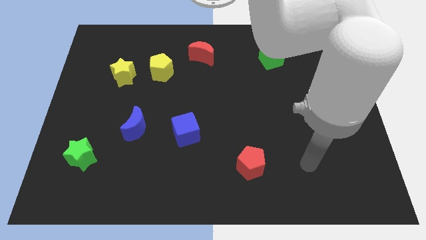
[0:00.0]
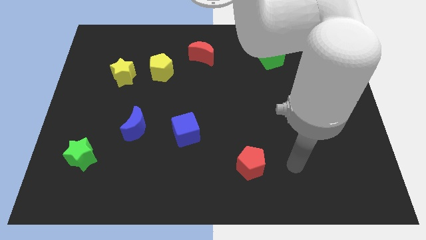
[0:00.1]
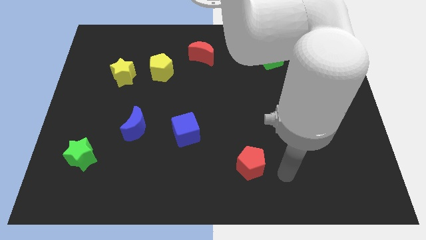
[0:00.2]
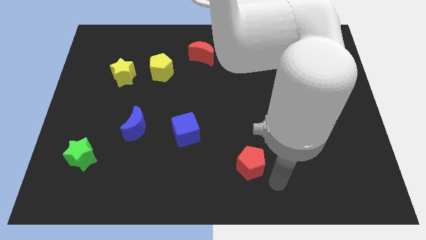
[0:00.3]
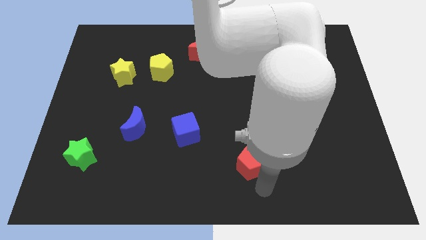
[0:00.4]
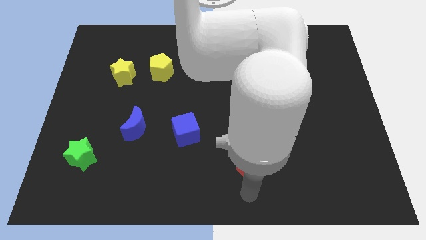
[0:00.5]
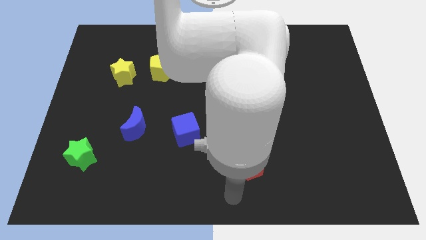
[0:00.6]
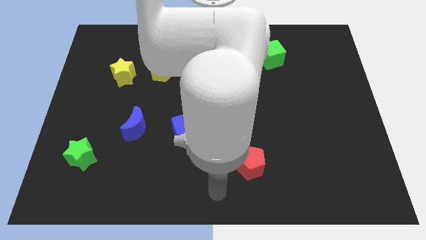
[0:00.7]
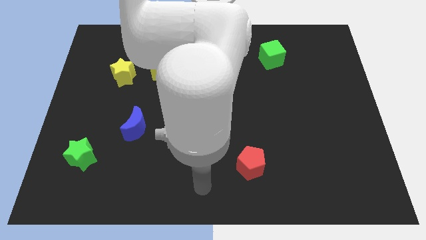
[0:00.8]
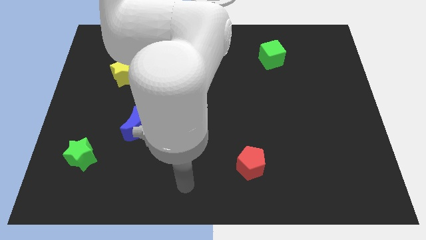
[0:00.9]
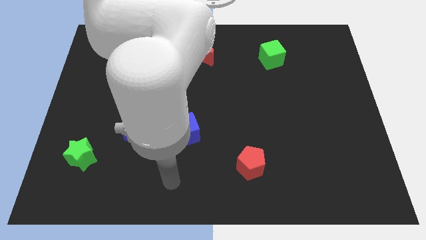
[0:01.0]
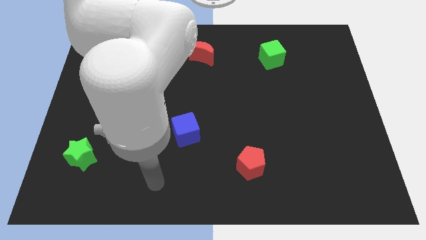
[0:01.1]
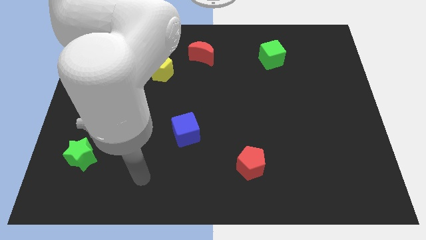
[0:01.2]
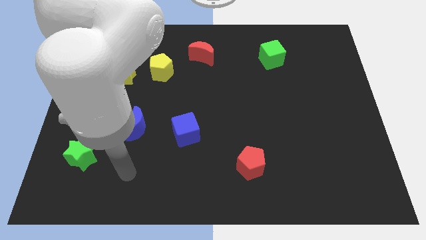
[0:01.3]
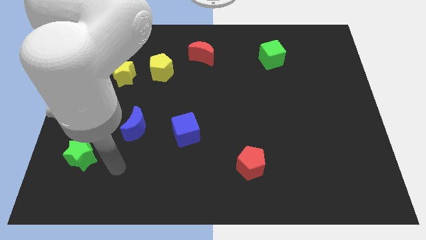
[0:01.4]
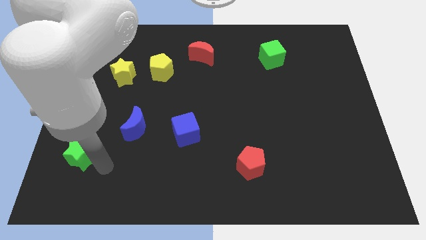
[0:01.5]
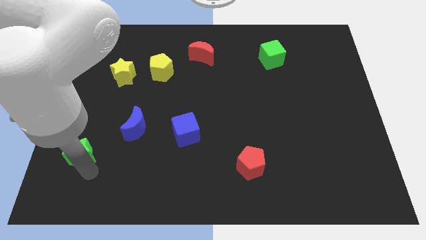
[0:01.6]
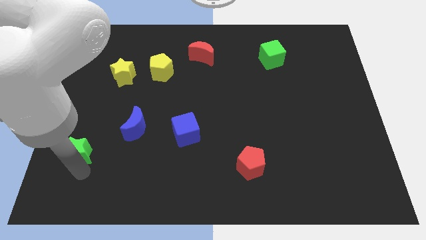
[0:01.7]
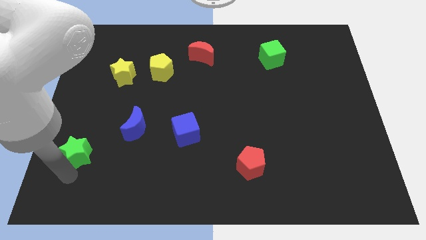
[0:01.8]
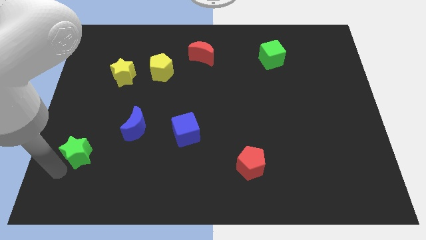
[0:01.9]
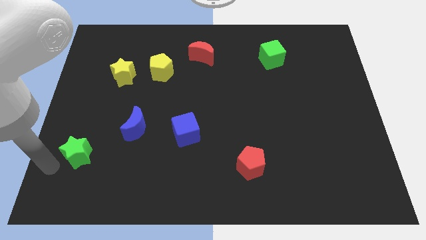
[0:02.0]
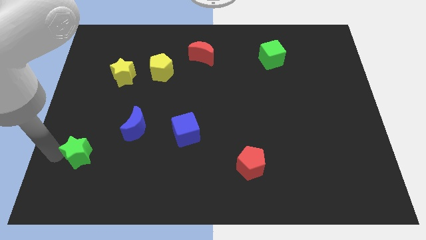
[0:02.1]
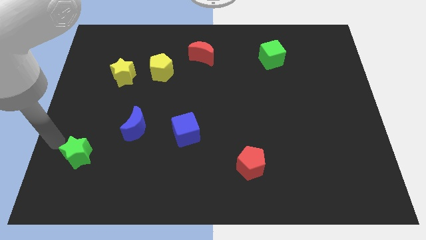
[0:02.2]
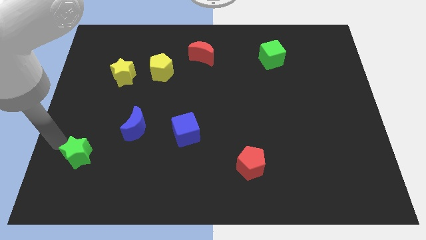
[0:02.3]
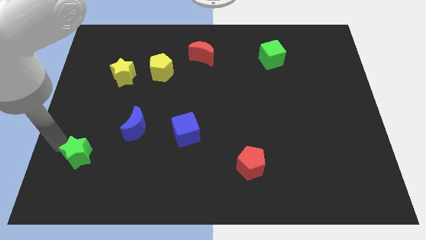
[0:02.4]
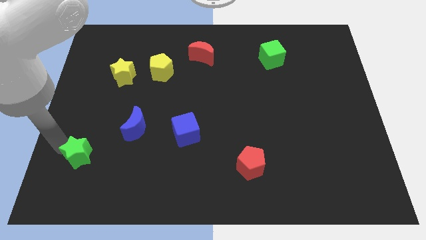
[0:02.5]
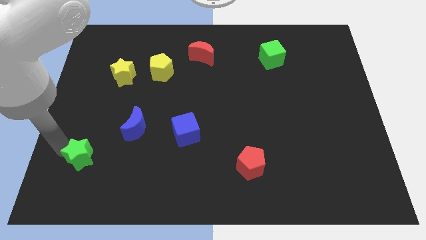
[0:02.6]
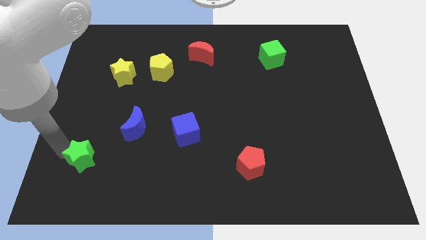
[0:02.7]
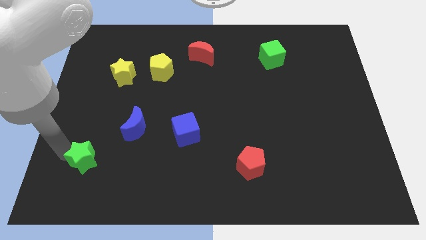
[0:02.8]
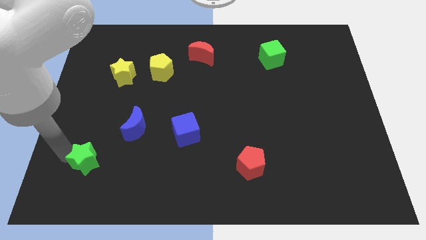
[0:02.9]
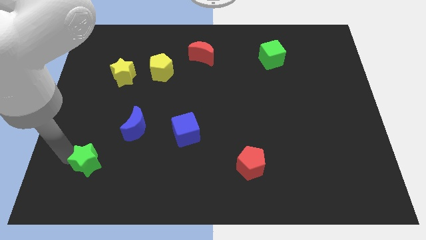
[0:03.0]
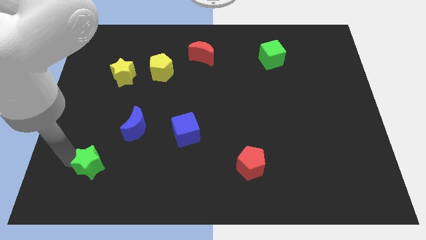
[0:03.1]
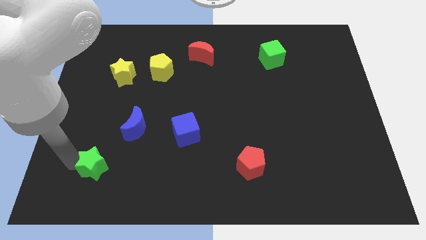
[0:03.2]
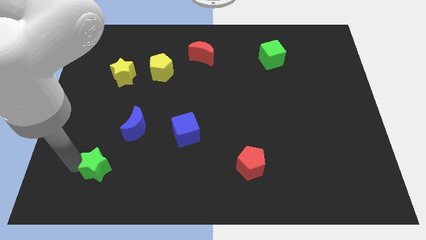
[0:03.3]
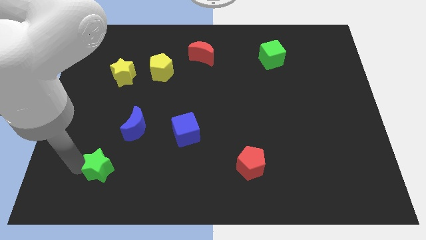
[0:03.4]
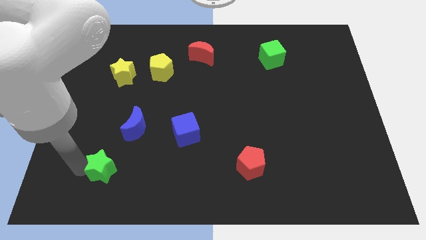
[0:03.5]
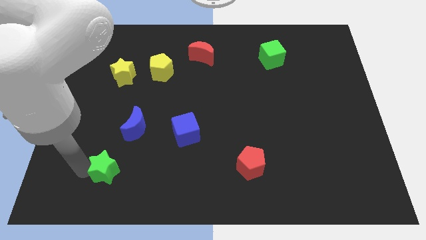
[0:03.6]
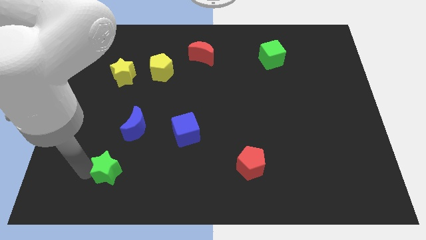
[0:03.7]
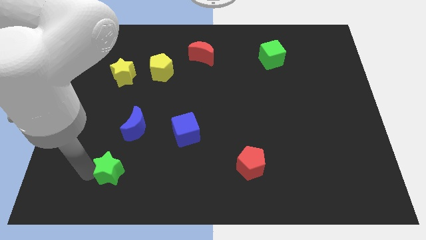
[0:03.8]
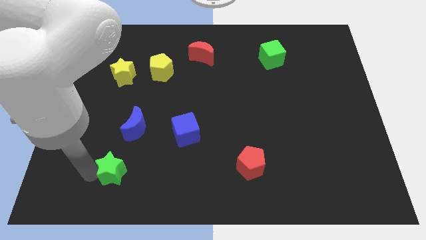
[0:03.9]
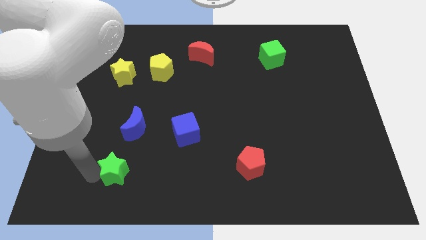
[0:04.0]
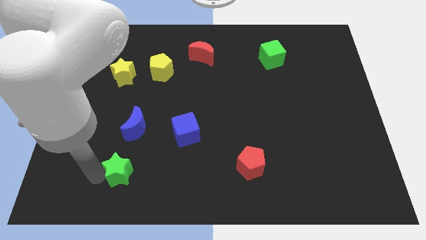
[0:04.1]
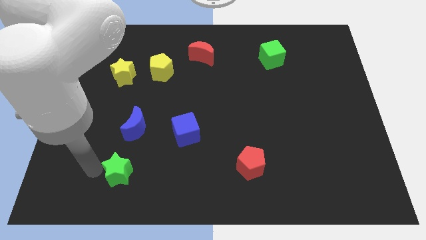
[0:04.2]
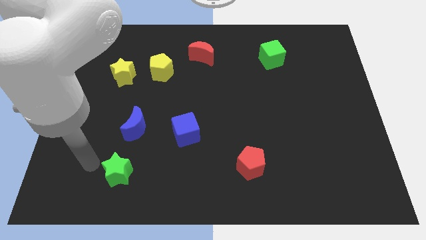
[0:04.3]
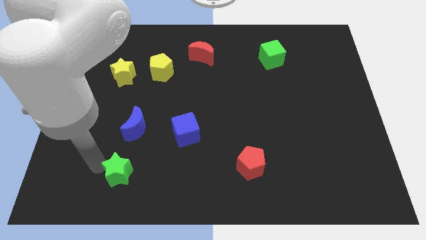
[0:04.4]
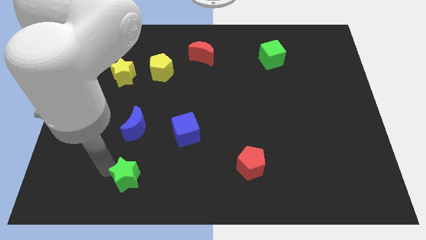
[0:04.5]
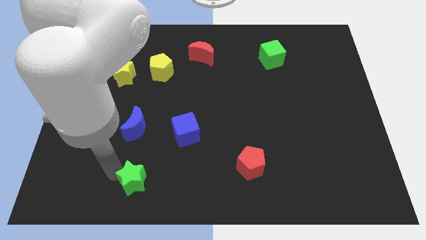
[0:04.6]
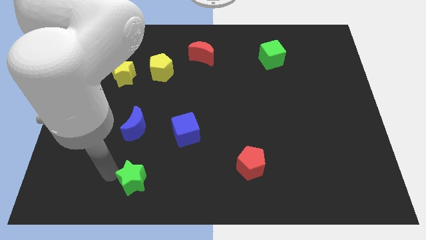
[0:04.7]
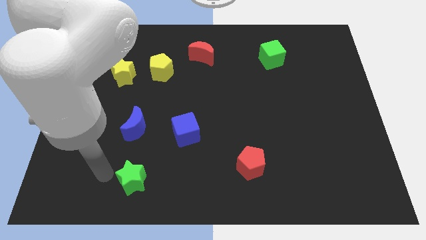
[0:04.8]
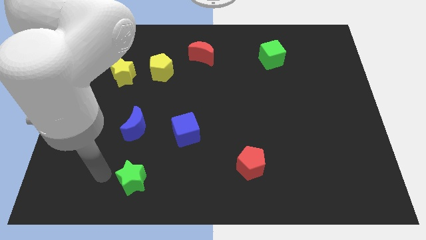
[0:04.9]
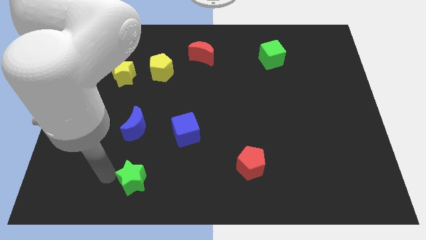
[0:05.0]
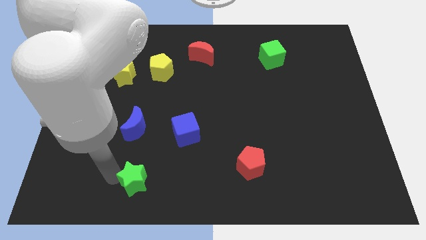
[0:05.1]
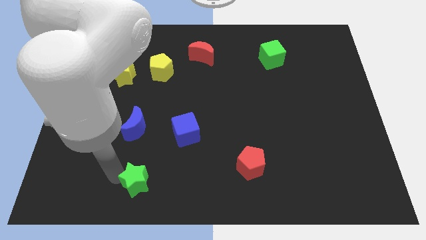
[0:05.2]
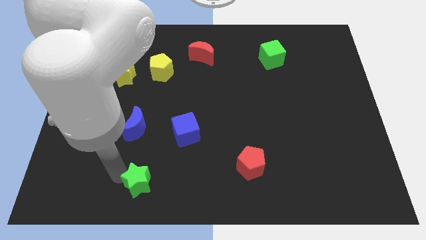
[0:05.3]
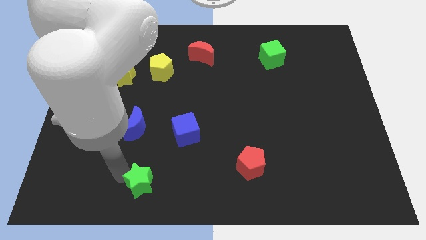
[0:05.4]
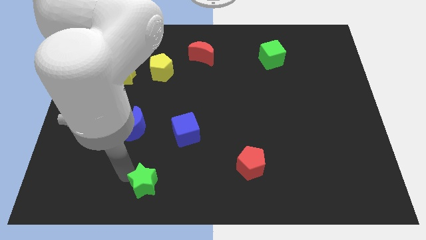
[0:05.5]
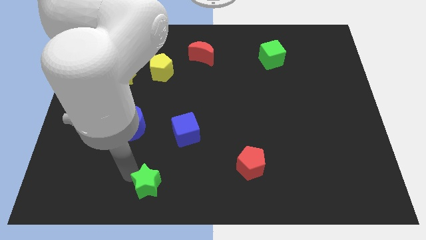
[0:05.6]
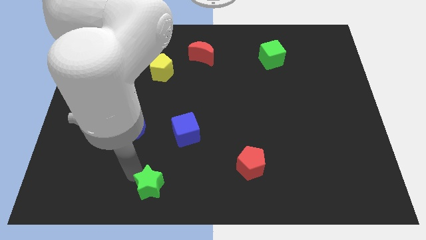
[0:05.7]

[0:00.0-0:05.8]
push the green star to the bottom side

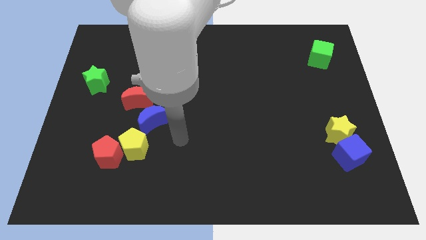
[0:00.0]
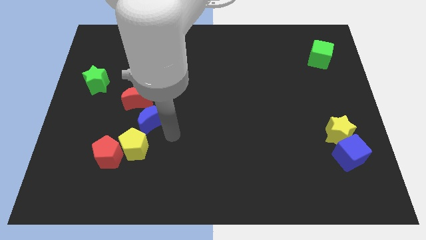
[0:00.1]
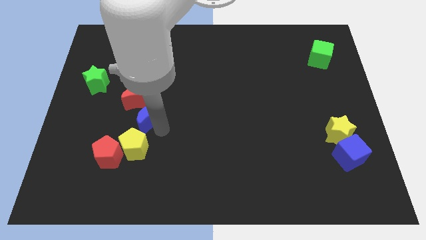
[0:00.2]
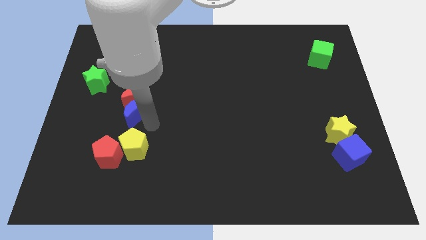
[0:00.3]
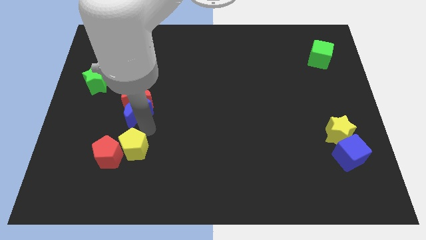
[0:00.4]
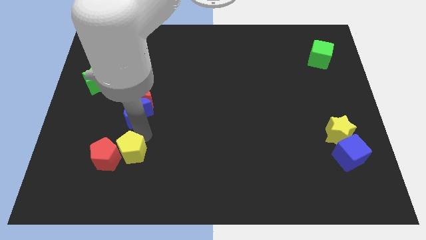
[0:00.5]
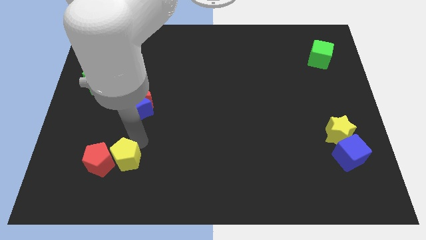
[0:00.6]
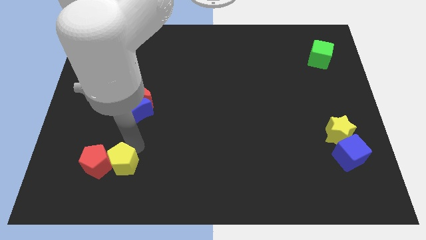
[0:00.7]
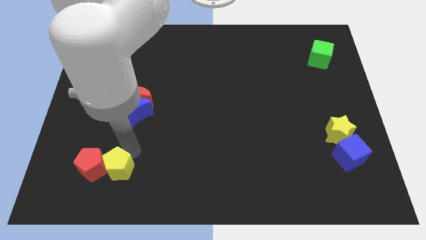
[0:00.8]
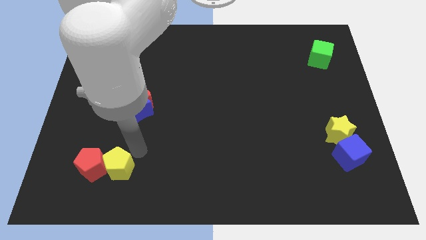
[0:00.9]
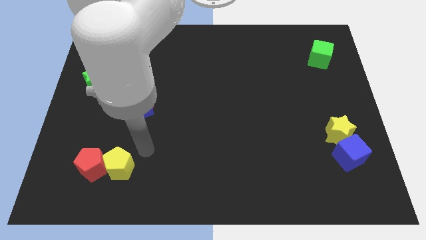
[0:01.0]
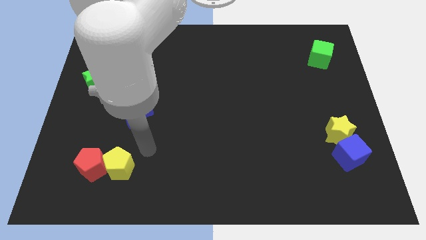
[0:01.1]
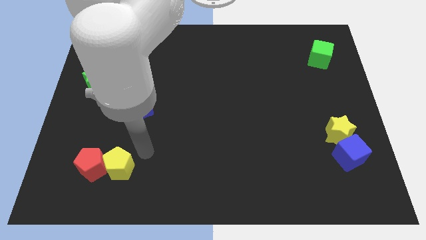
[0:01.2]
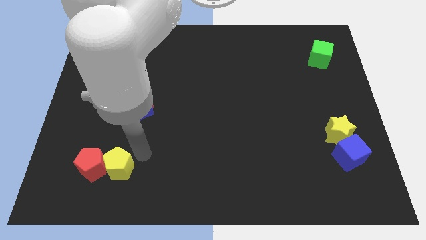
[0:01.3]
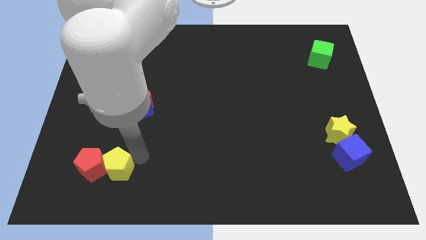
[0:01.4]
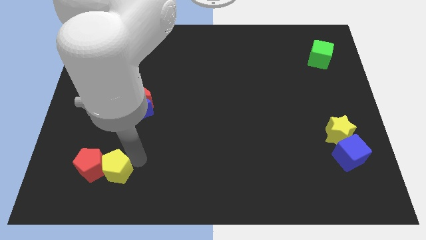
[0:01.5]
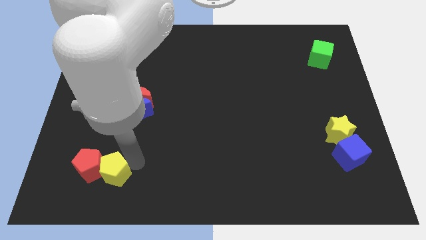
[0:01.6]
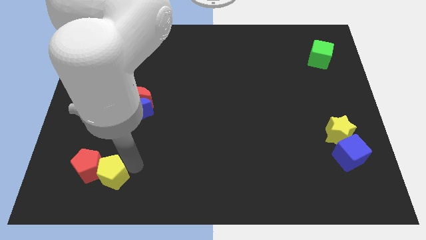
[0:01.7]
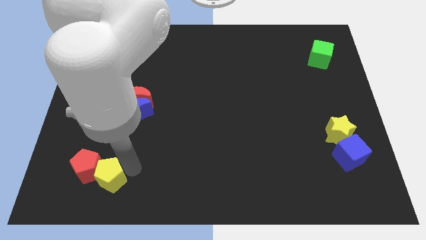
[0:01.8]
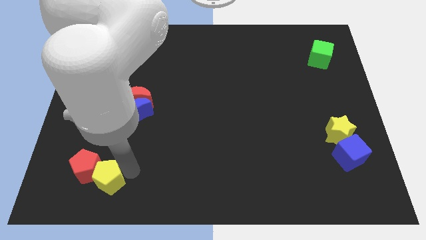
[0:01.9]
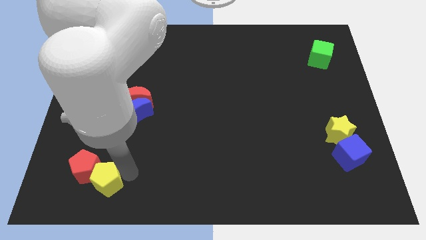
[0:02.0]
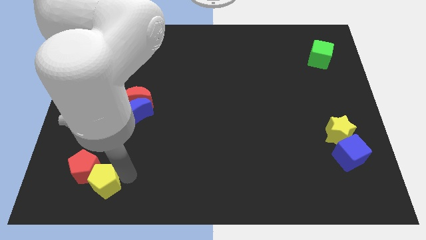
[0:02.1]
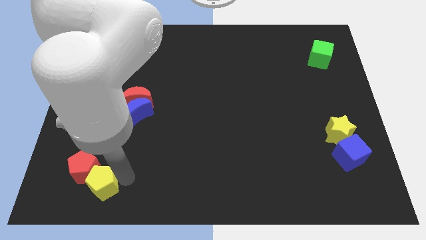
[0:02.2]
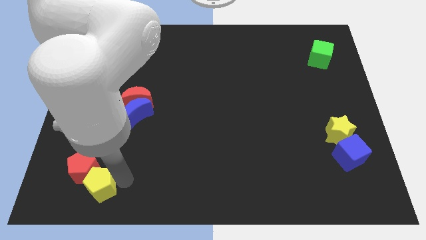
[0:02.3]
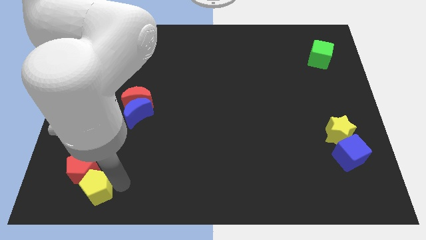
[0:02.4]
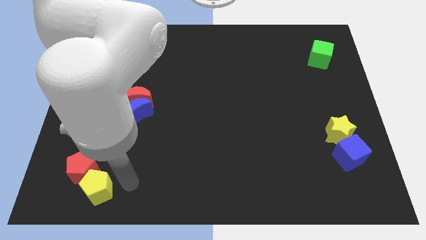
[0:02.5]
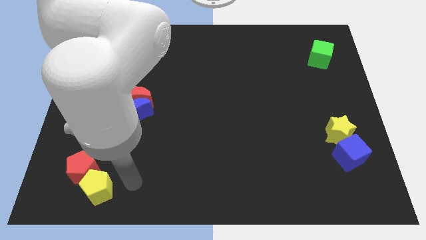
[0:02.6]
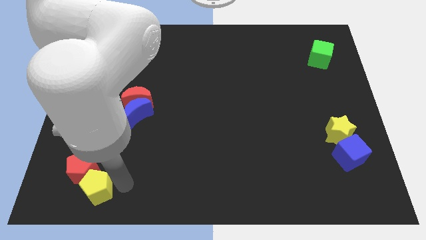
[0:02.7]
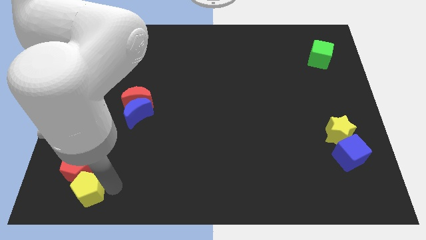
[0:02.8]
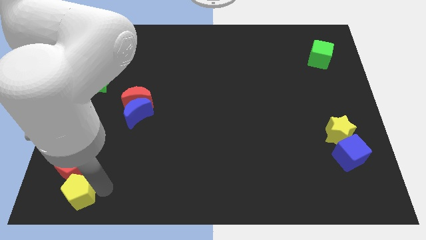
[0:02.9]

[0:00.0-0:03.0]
put the yellow pentagon to the lower left corner
